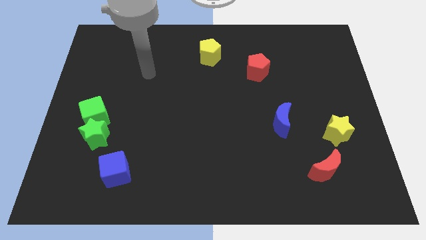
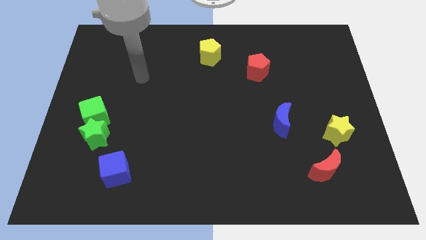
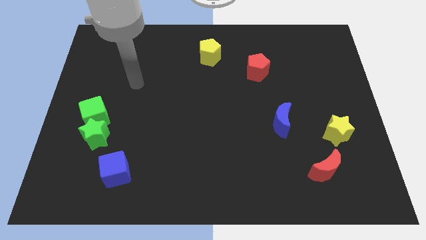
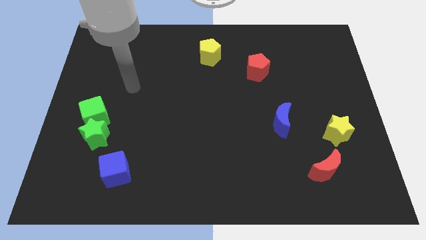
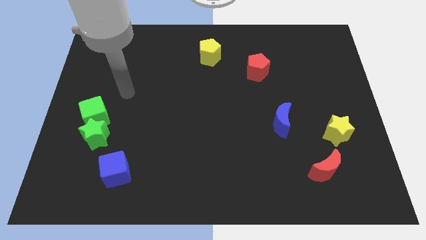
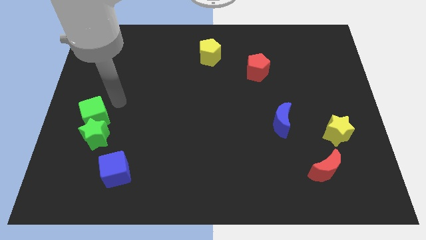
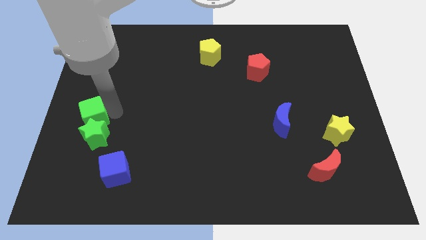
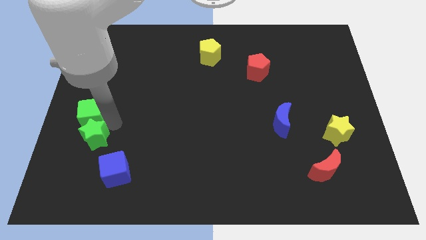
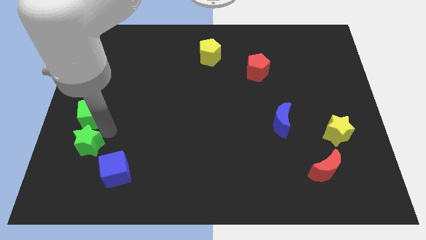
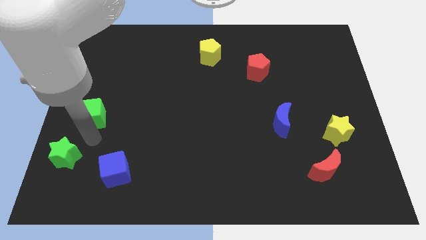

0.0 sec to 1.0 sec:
separate the green cube from the green star

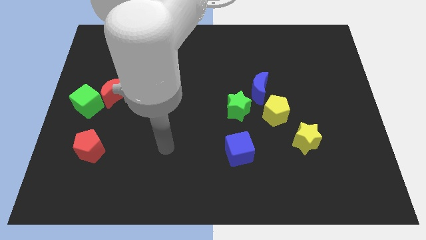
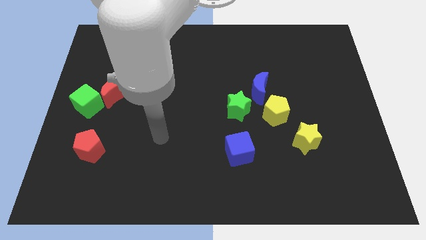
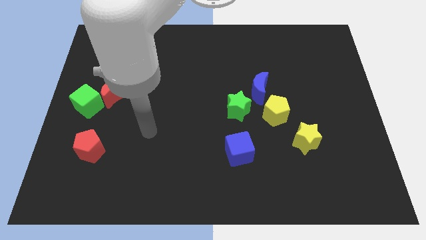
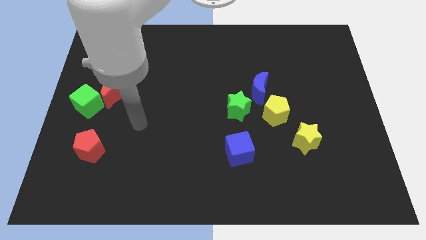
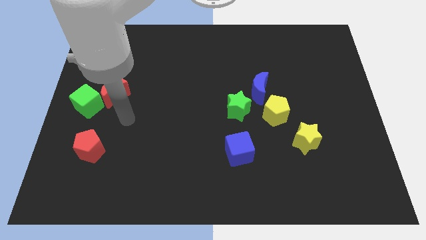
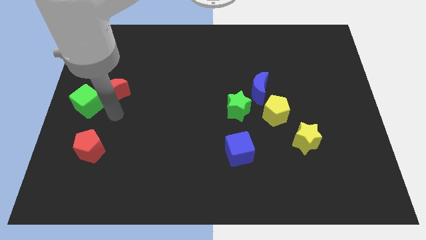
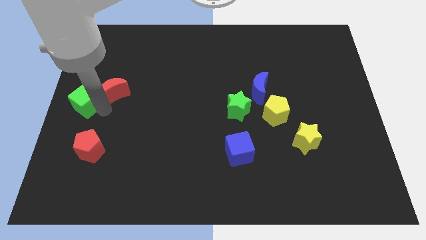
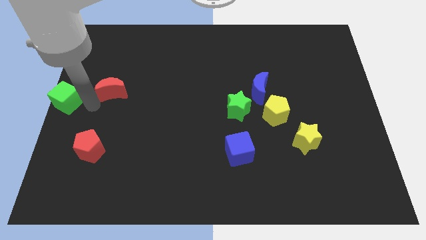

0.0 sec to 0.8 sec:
separate the red moon from the green cube

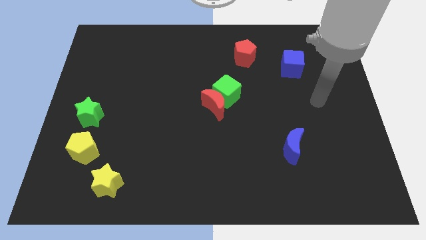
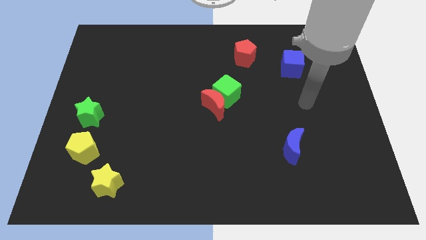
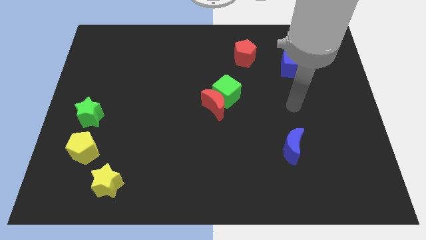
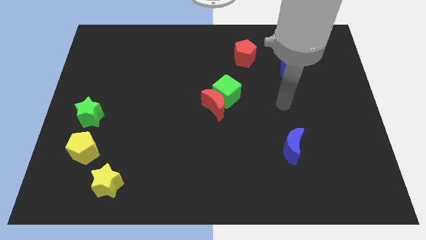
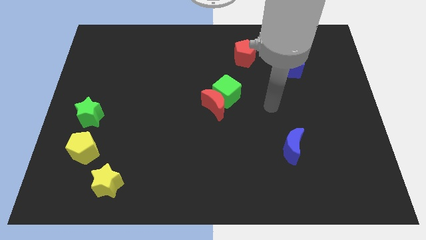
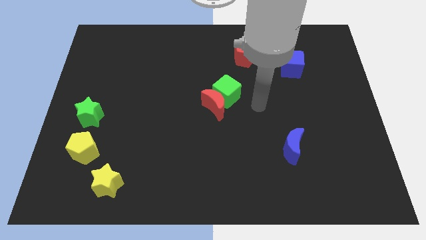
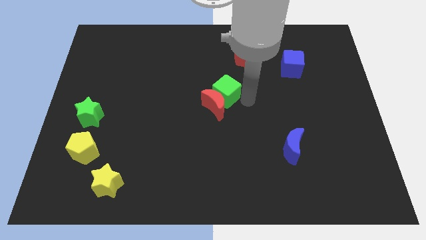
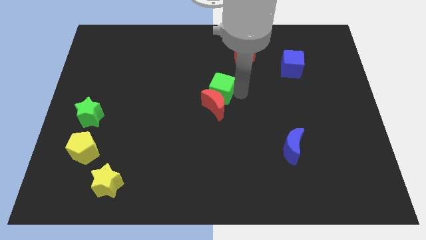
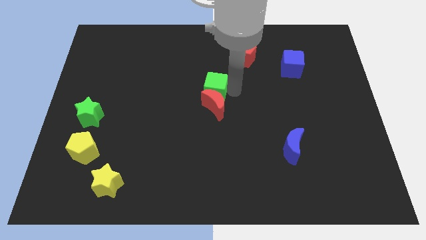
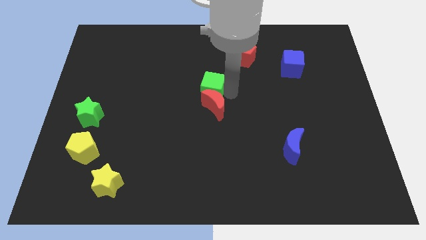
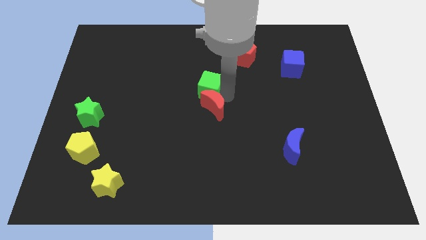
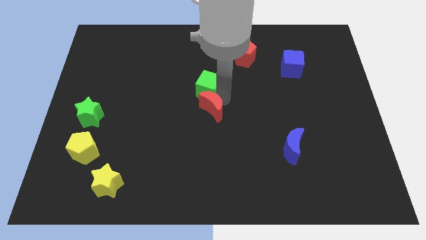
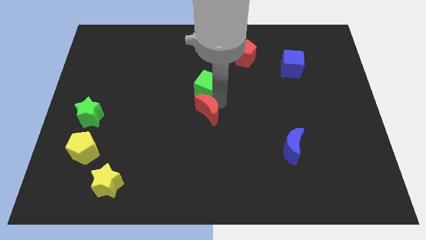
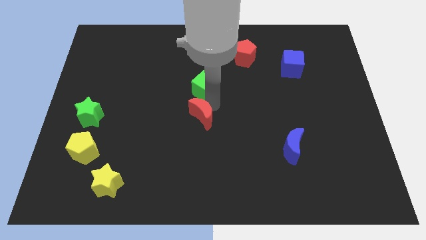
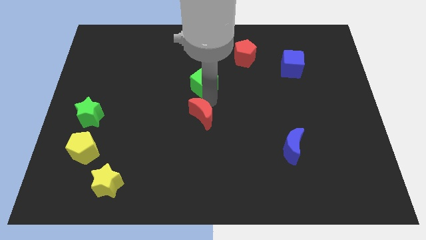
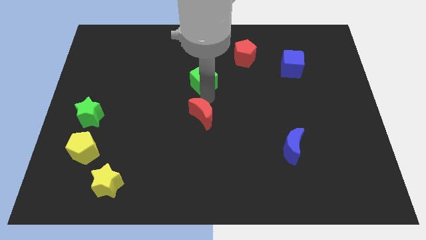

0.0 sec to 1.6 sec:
pull the red moon apart from the green cube

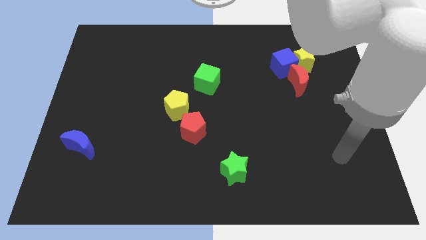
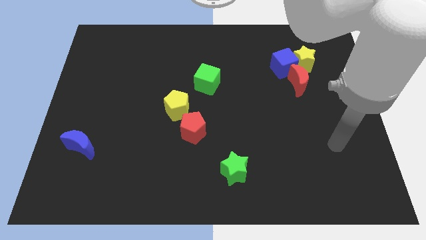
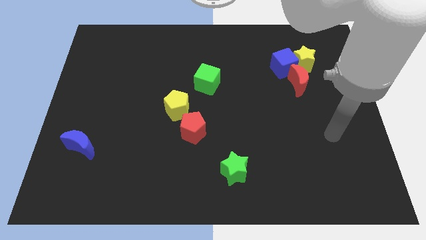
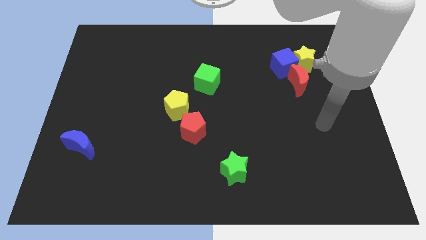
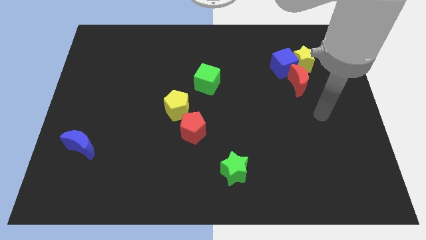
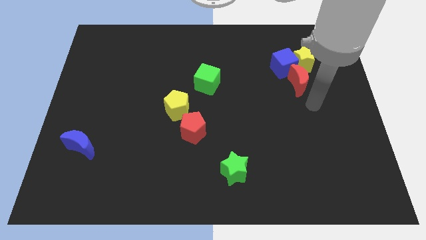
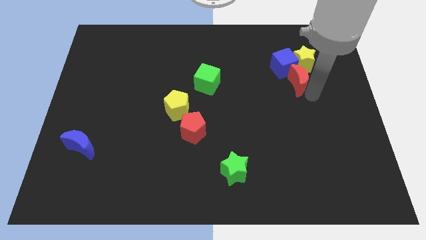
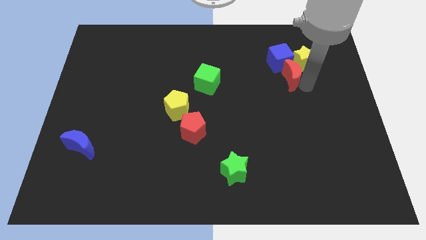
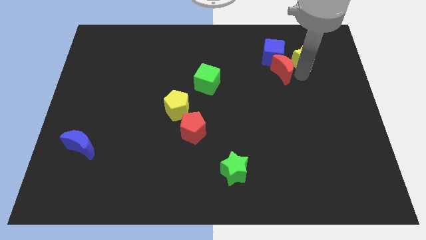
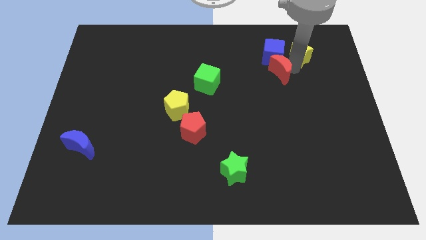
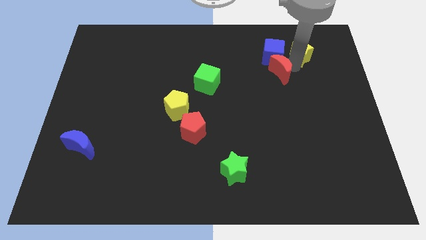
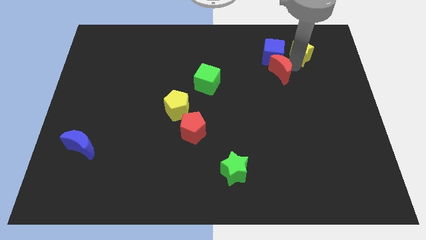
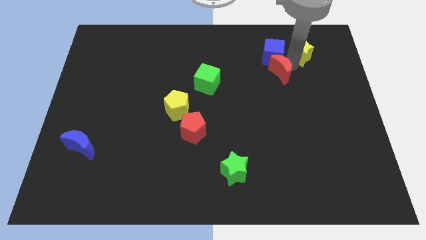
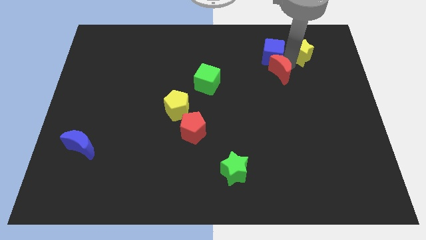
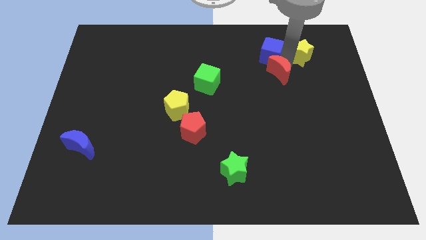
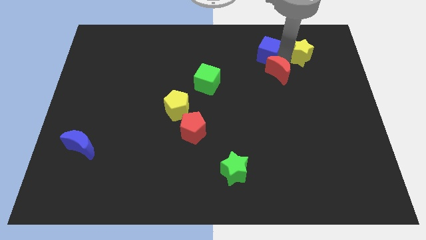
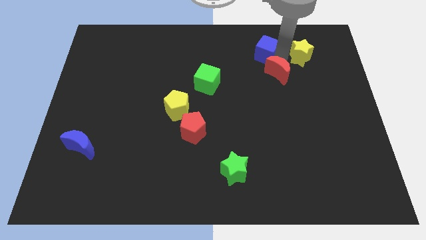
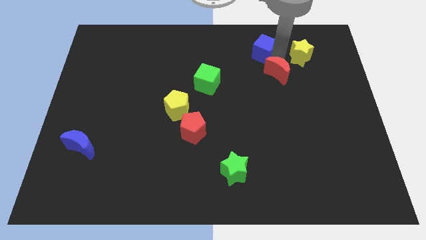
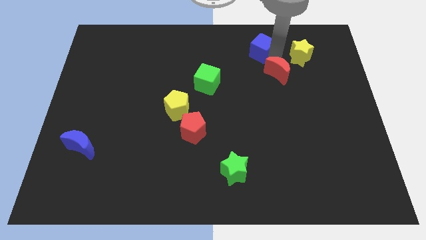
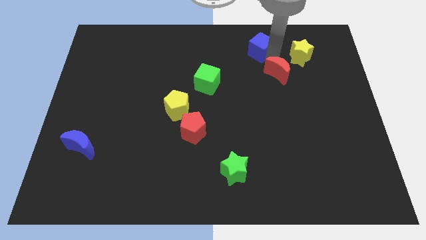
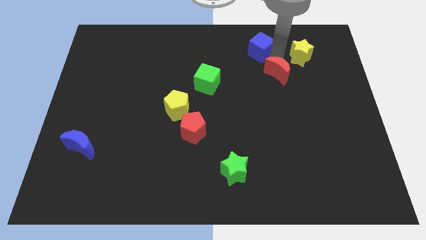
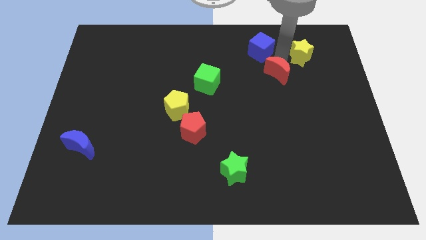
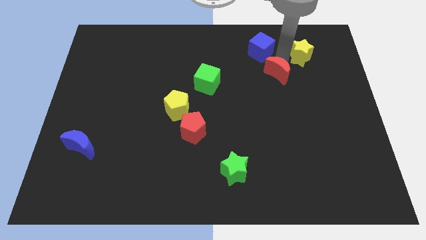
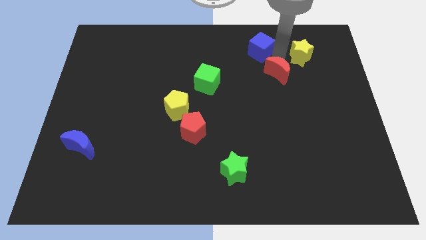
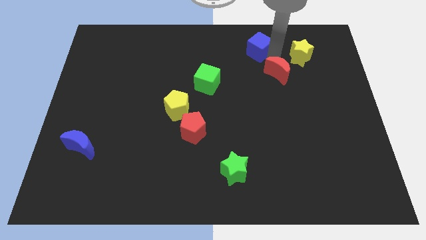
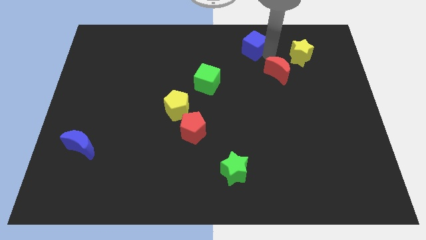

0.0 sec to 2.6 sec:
move the blue cube away from the yellow star and red moon

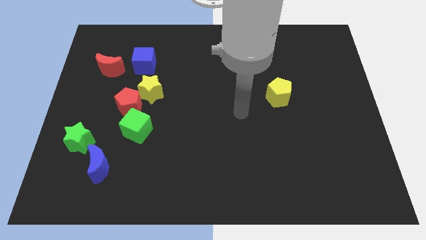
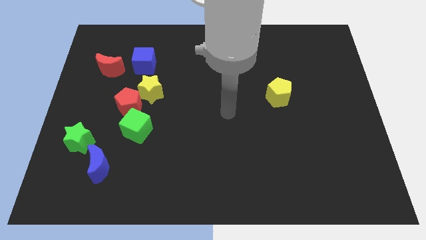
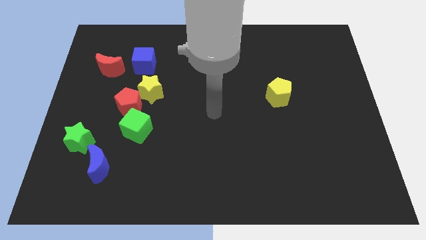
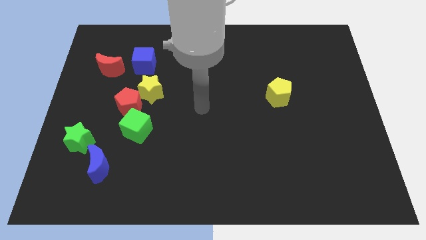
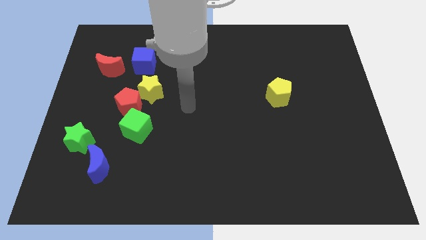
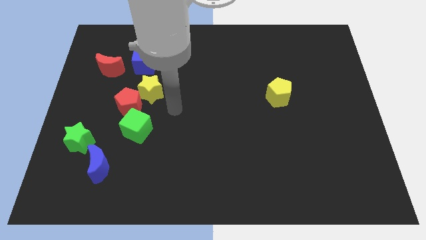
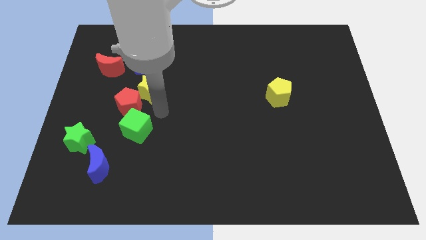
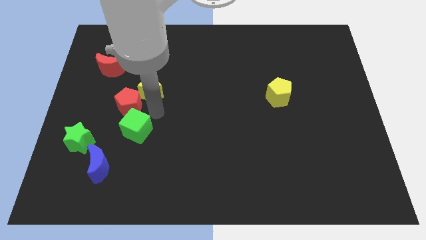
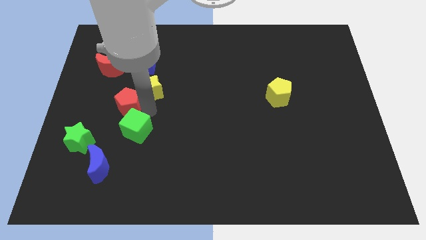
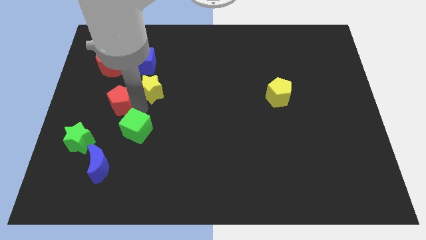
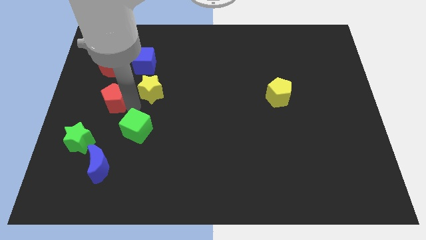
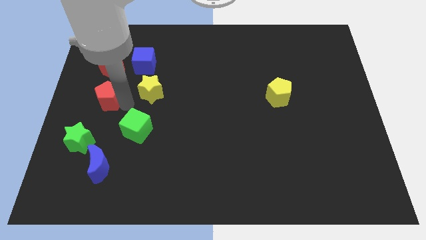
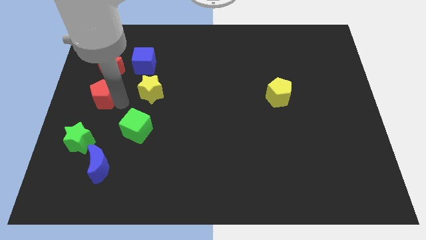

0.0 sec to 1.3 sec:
move the red pentagon away from the yellow star and green cube

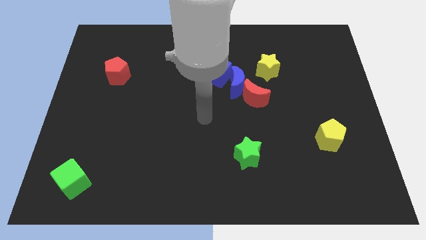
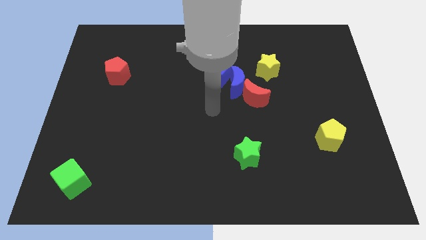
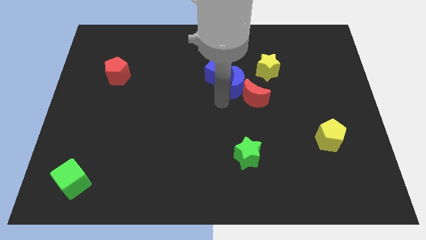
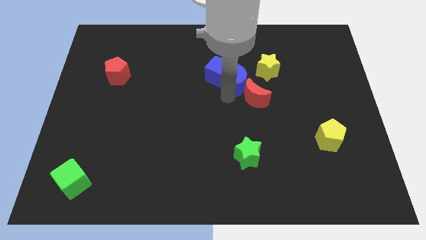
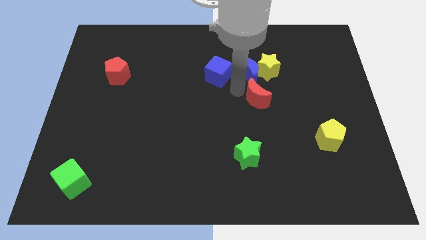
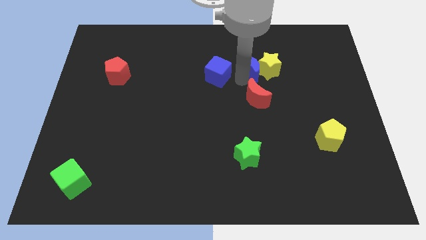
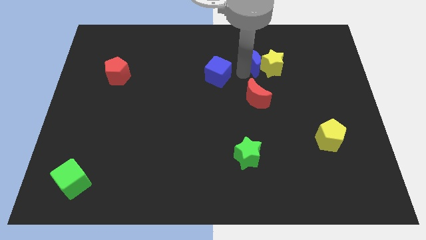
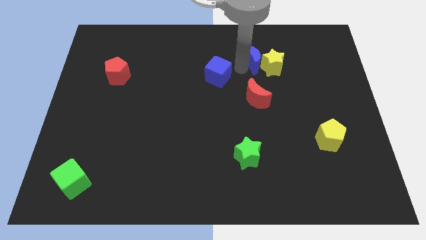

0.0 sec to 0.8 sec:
pull the blue cube apart from the blue moon

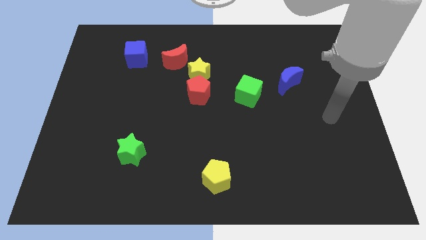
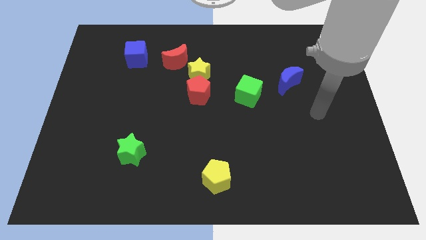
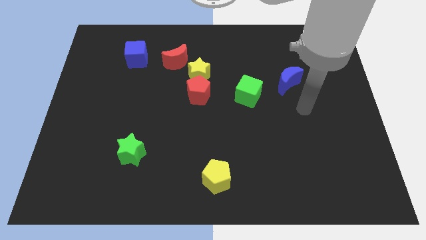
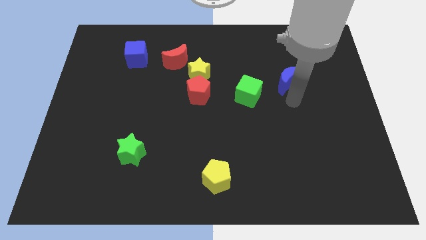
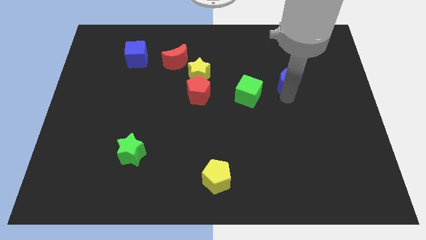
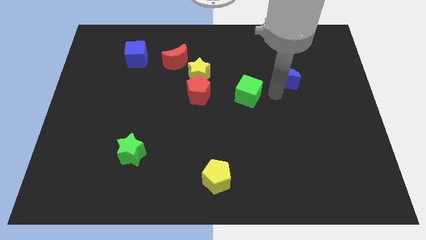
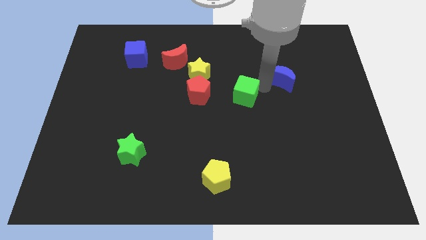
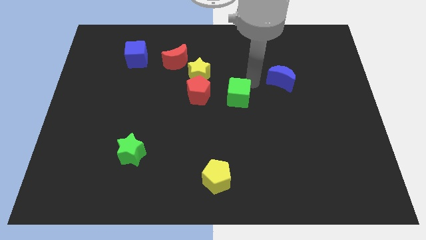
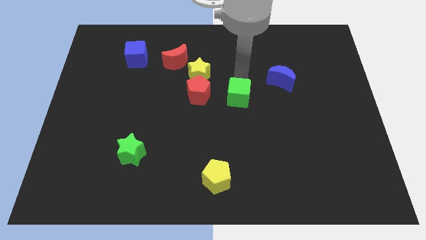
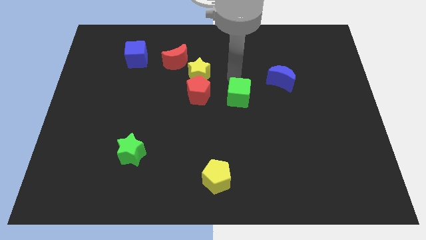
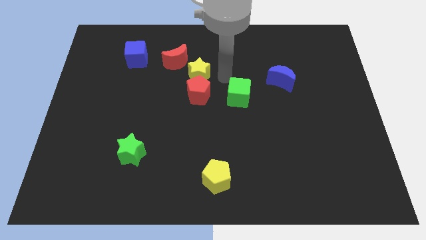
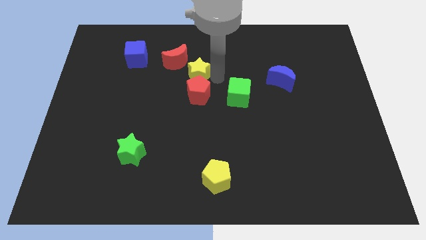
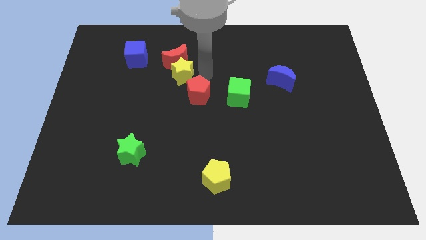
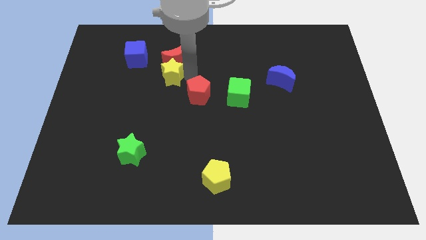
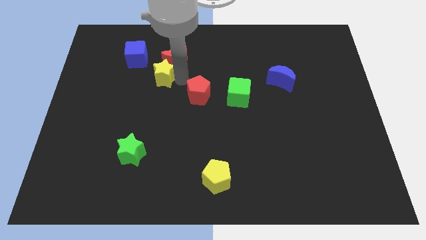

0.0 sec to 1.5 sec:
separate the red pentagon from the yellow star
